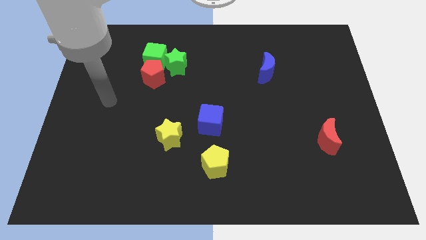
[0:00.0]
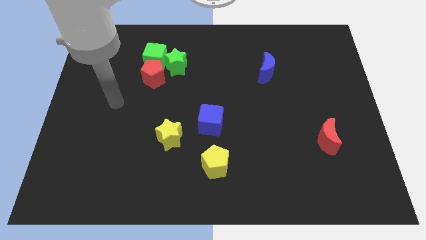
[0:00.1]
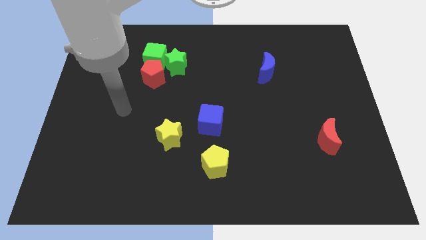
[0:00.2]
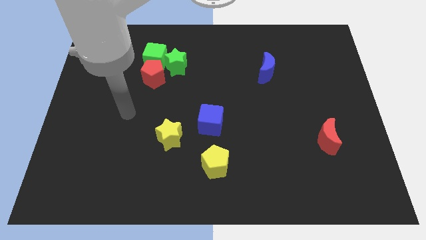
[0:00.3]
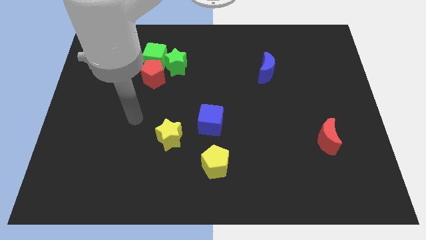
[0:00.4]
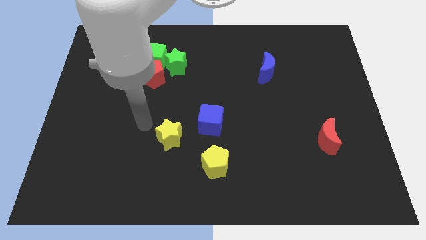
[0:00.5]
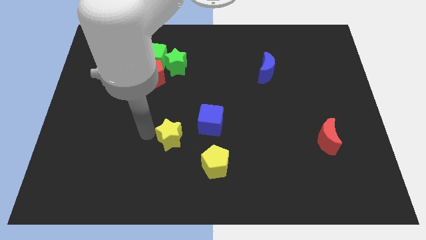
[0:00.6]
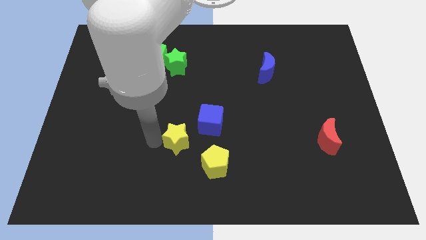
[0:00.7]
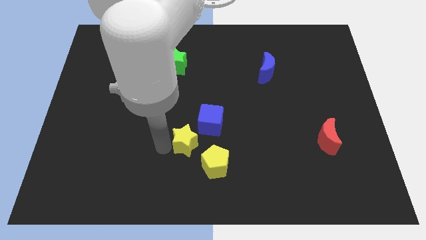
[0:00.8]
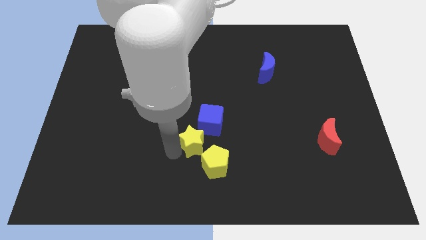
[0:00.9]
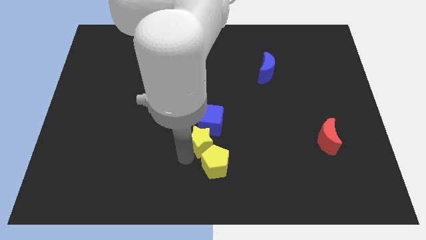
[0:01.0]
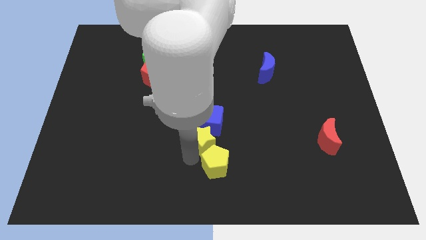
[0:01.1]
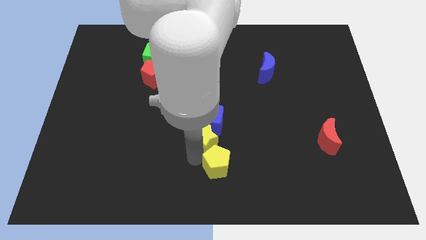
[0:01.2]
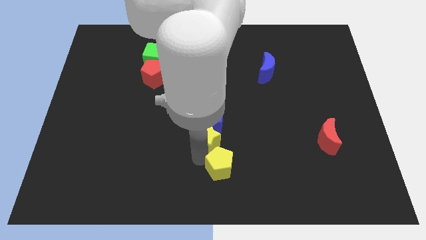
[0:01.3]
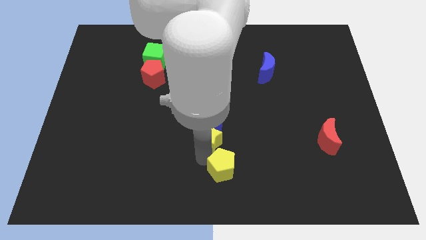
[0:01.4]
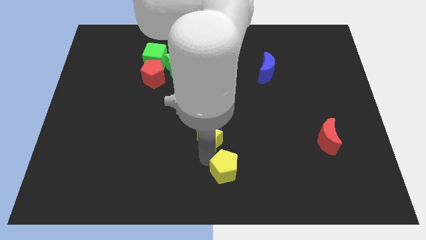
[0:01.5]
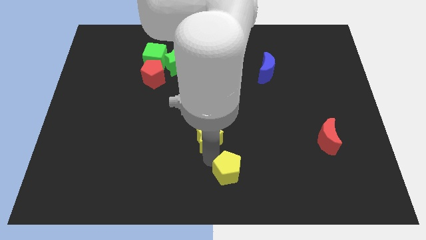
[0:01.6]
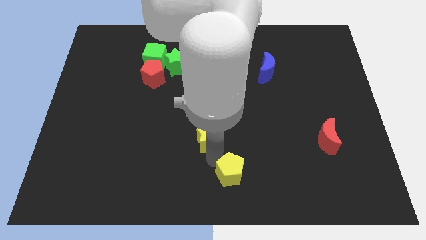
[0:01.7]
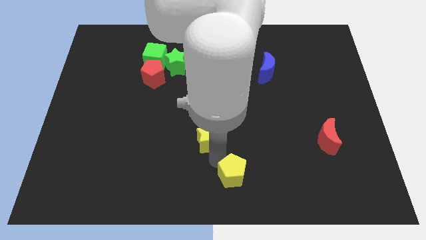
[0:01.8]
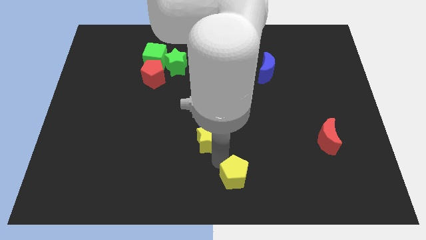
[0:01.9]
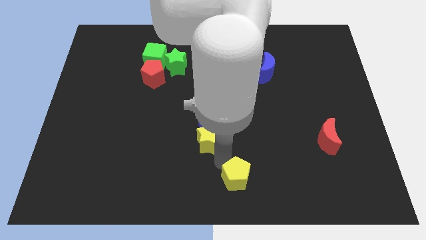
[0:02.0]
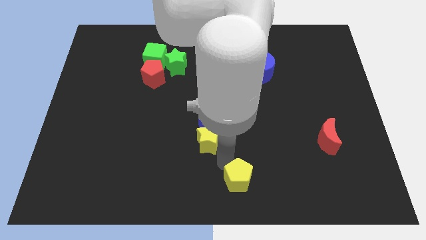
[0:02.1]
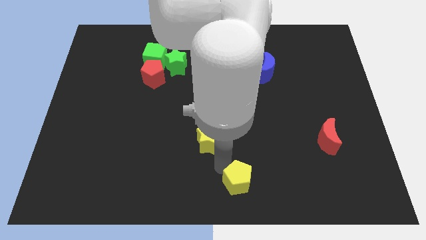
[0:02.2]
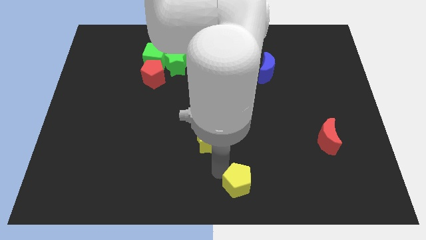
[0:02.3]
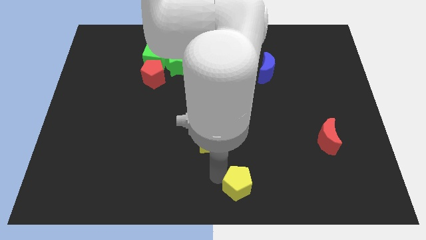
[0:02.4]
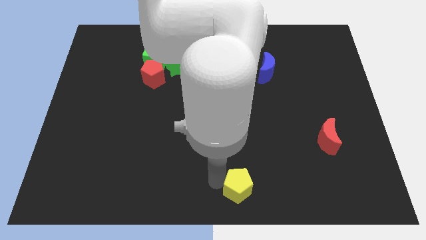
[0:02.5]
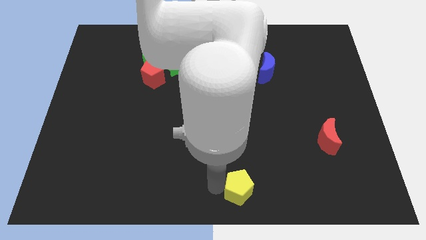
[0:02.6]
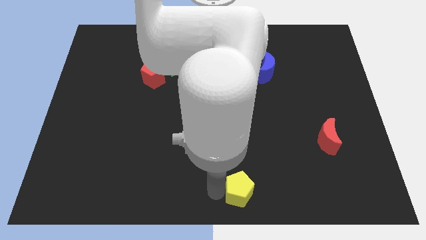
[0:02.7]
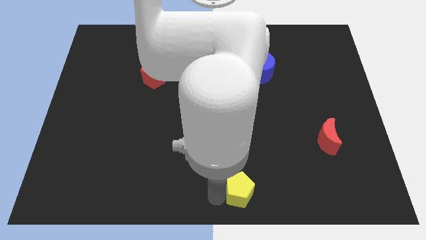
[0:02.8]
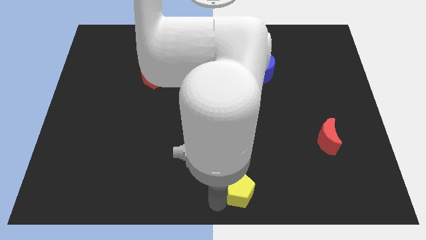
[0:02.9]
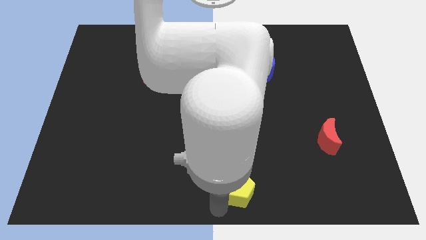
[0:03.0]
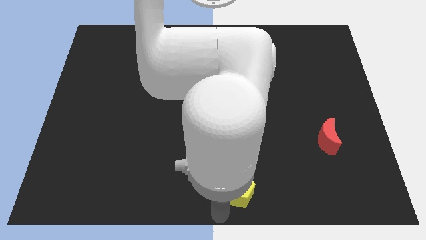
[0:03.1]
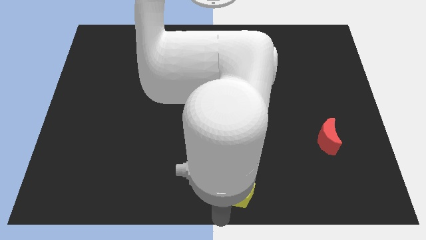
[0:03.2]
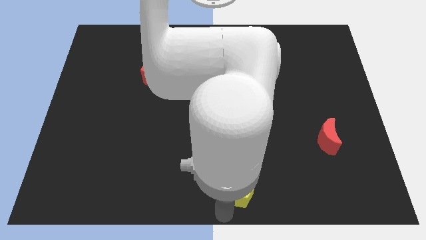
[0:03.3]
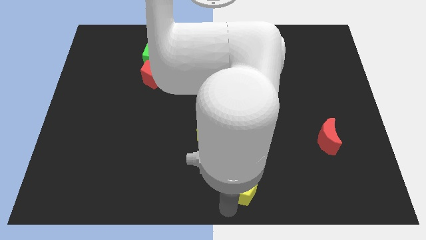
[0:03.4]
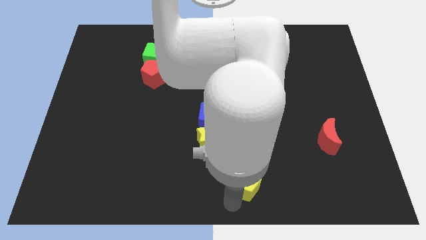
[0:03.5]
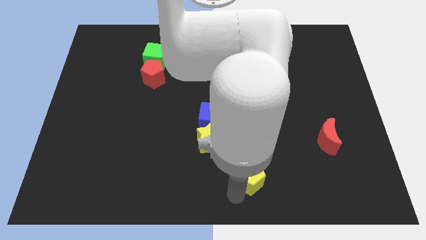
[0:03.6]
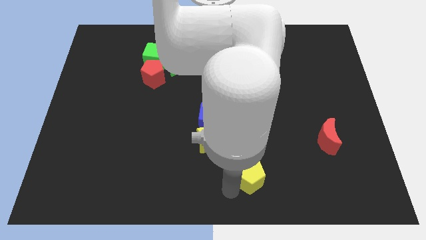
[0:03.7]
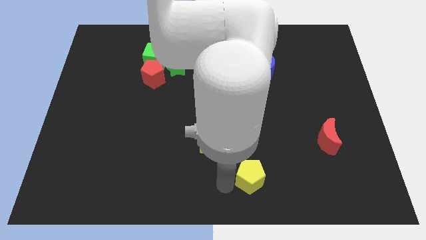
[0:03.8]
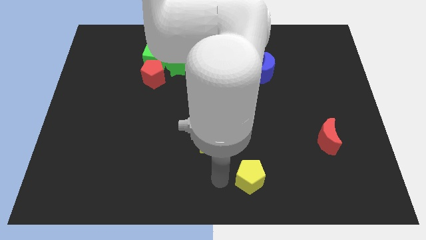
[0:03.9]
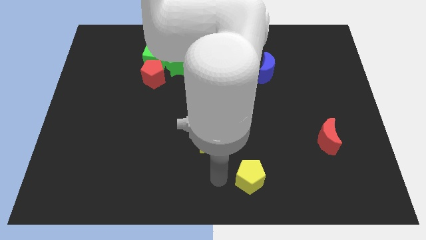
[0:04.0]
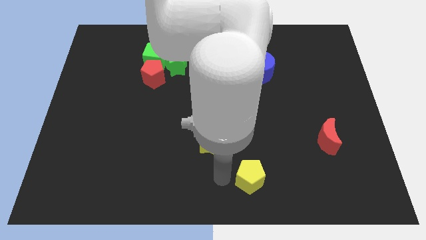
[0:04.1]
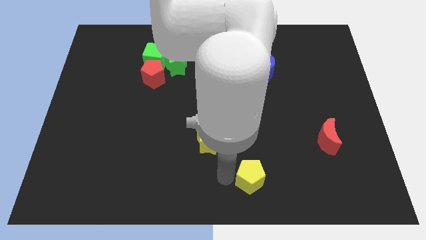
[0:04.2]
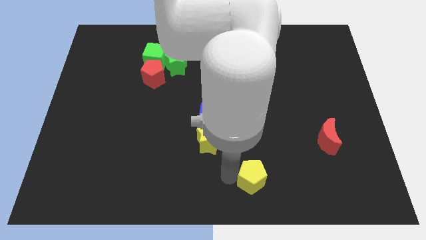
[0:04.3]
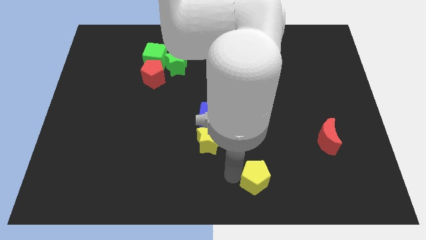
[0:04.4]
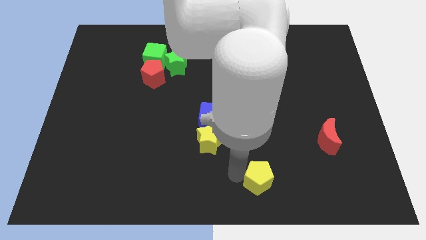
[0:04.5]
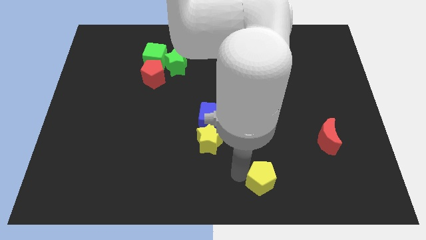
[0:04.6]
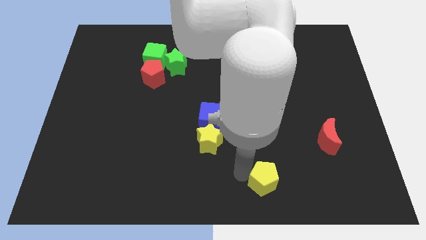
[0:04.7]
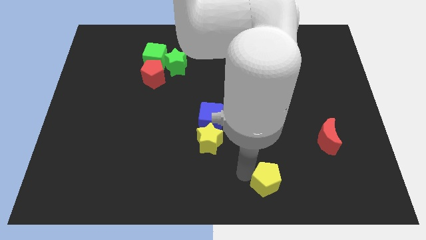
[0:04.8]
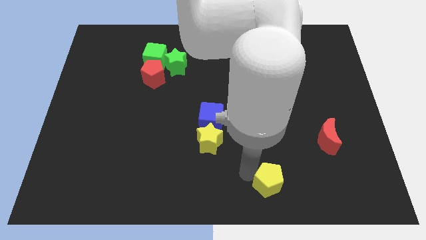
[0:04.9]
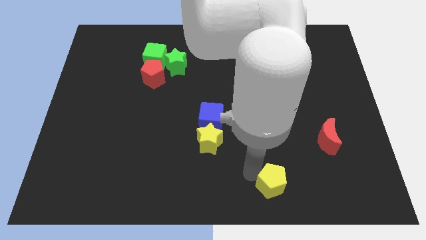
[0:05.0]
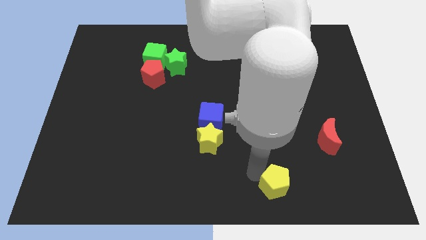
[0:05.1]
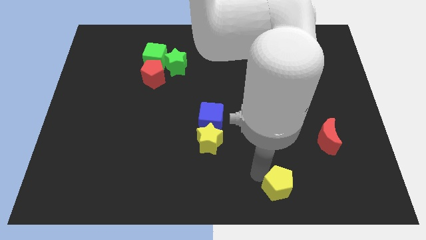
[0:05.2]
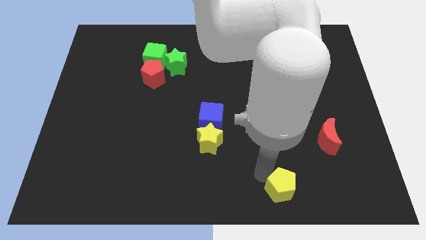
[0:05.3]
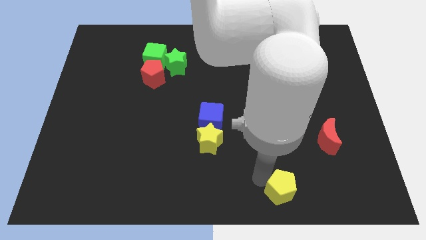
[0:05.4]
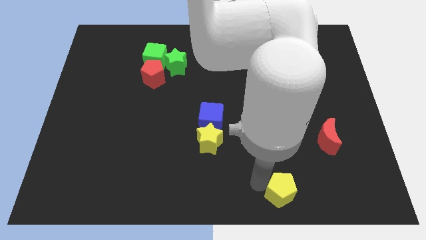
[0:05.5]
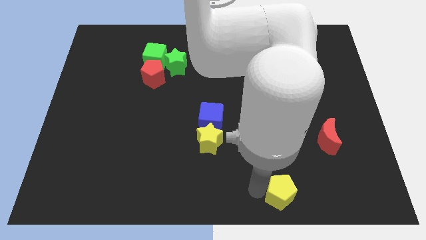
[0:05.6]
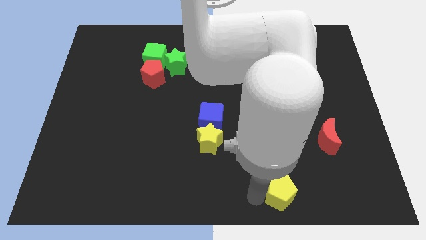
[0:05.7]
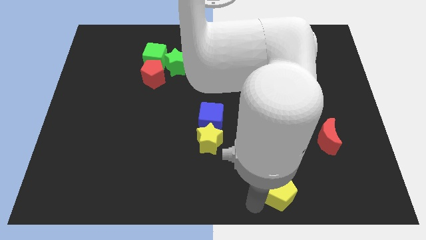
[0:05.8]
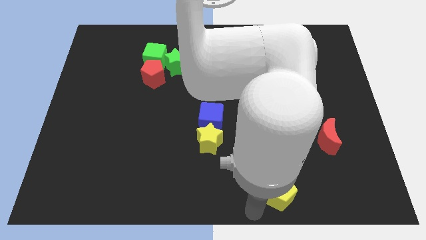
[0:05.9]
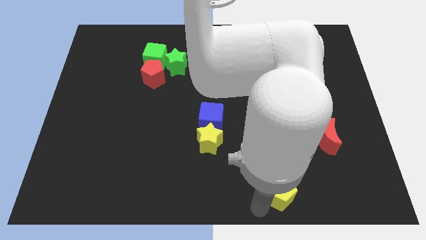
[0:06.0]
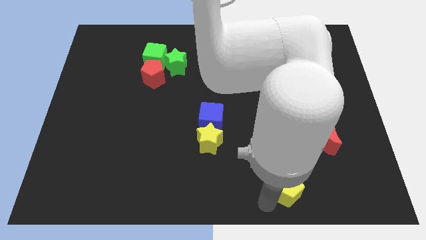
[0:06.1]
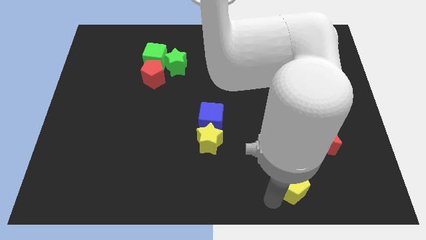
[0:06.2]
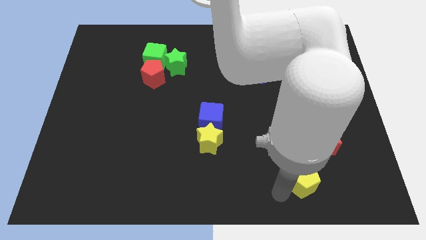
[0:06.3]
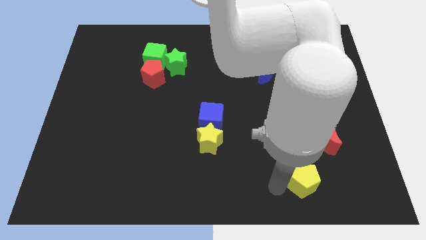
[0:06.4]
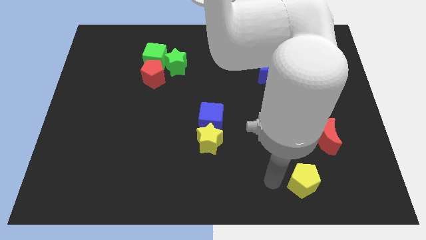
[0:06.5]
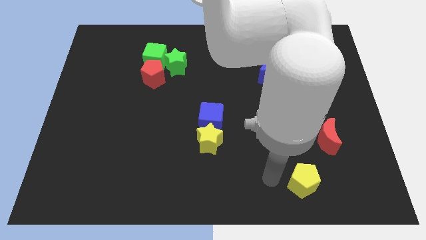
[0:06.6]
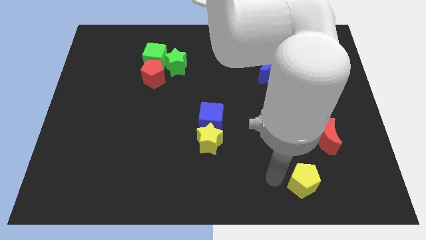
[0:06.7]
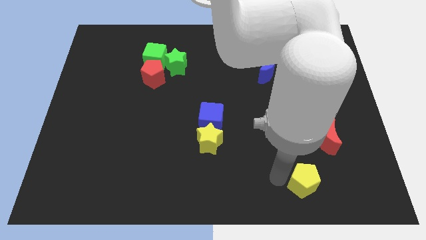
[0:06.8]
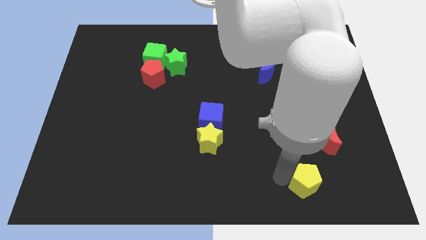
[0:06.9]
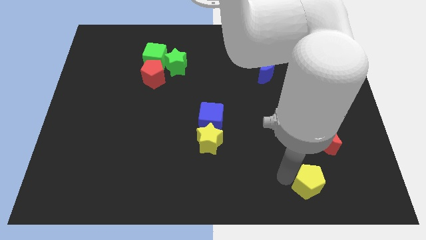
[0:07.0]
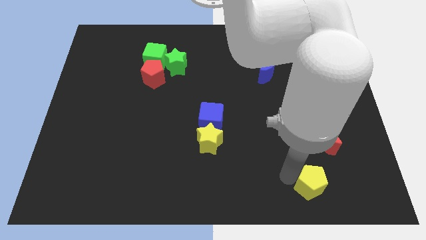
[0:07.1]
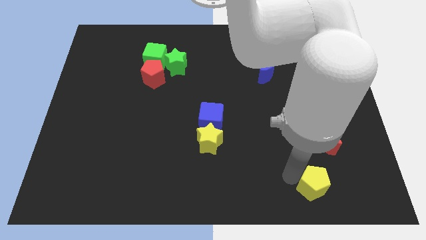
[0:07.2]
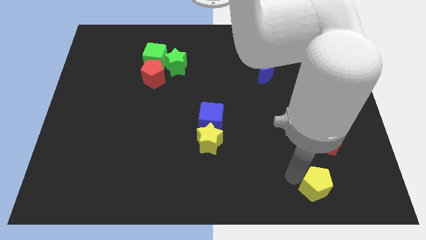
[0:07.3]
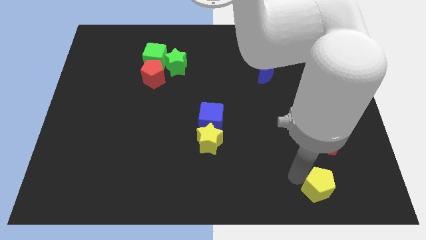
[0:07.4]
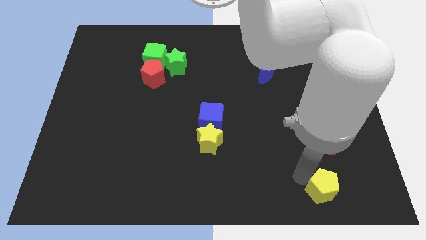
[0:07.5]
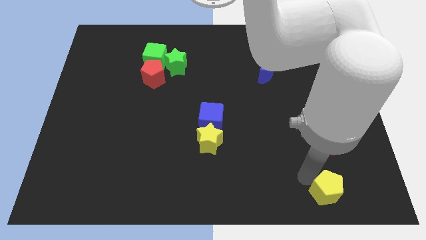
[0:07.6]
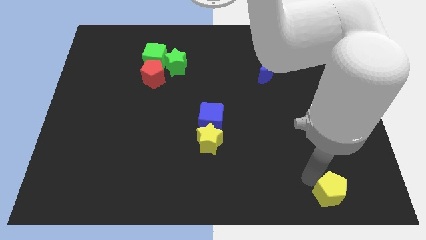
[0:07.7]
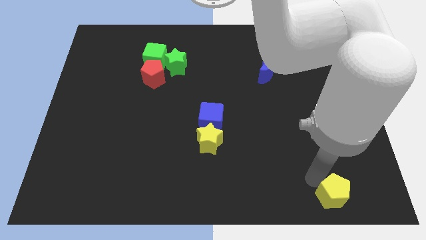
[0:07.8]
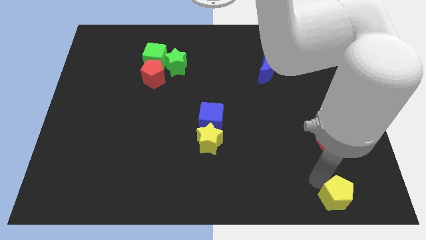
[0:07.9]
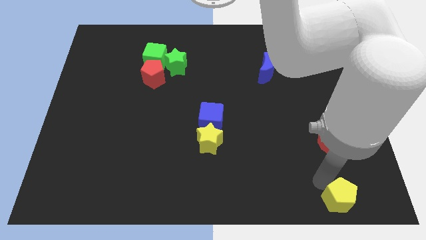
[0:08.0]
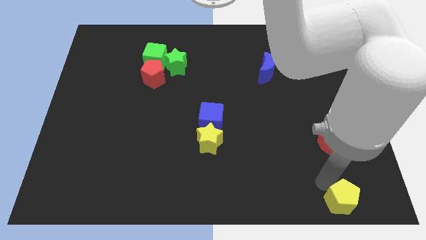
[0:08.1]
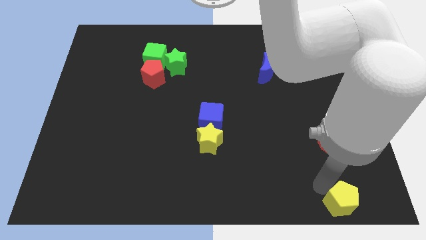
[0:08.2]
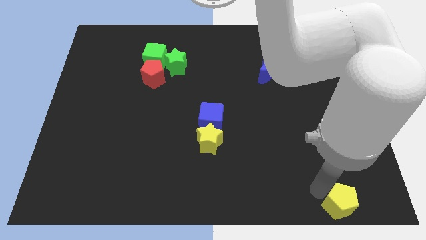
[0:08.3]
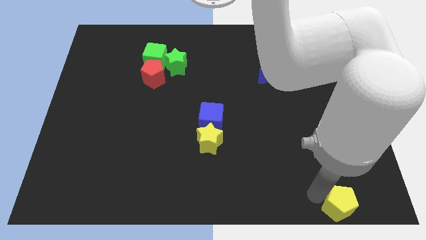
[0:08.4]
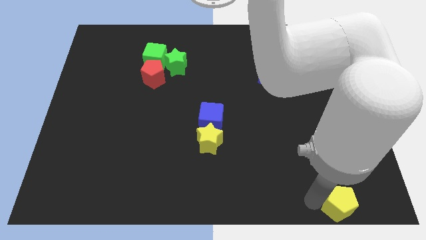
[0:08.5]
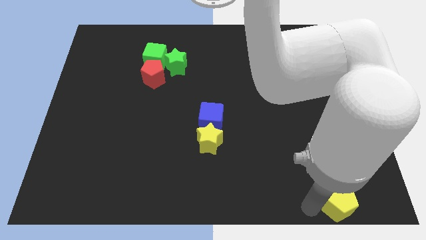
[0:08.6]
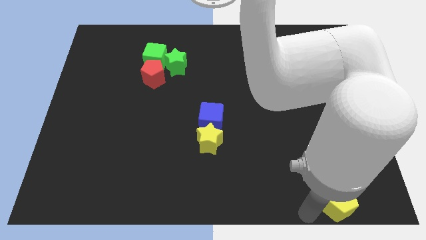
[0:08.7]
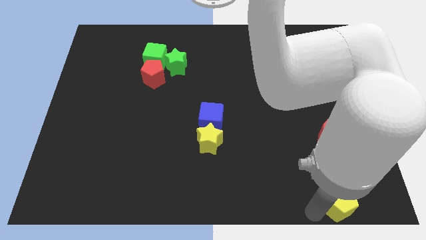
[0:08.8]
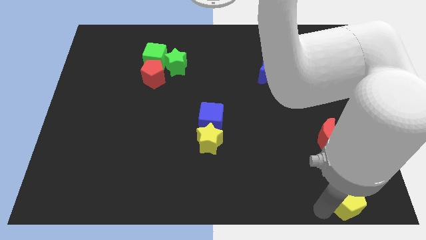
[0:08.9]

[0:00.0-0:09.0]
move the yellow pentagon to the lower right corner
